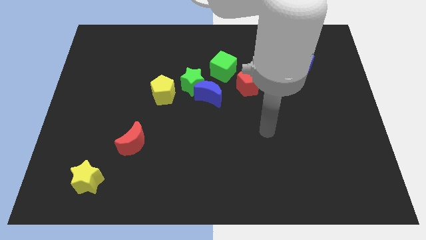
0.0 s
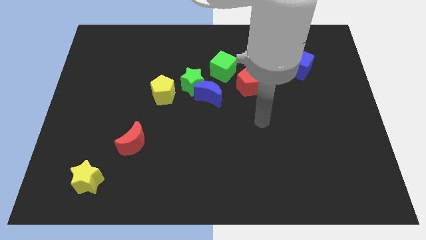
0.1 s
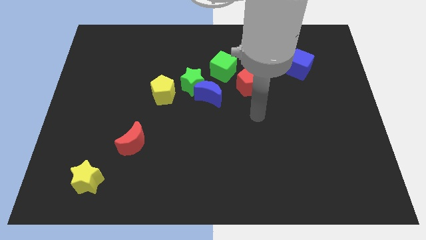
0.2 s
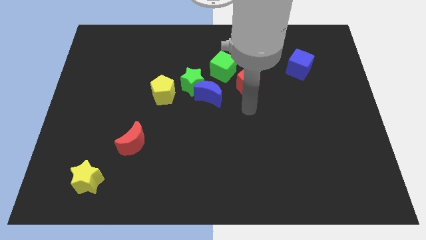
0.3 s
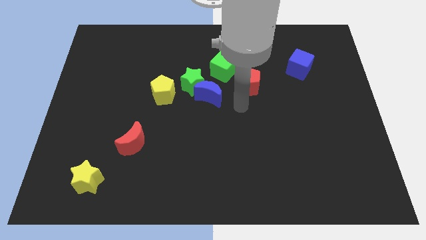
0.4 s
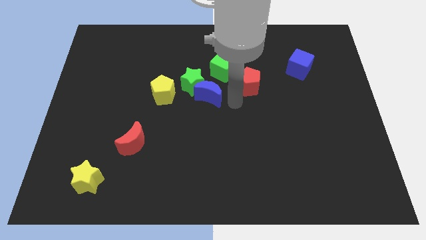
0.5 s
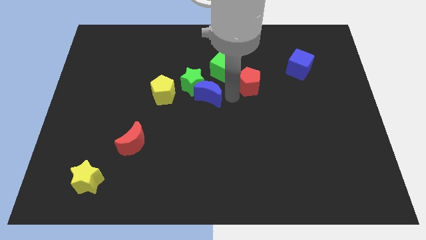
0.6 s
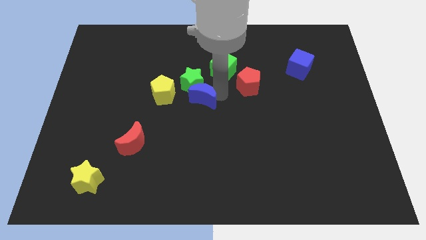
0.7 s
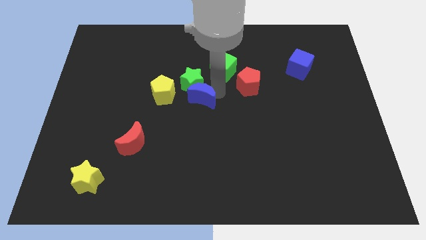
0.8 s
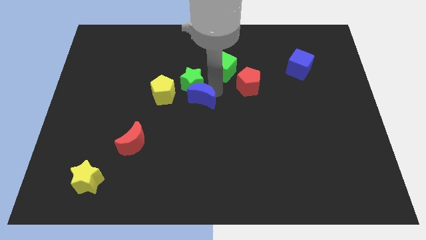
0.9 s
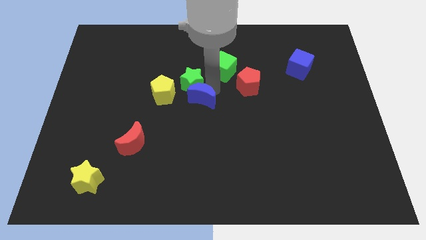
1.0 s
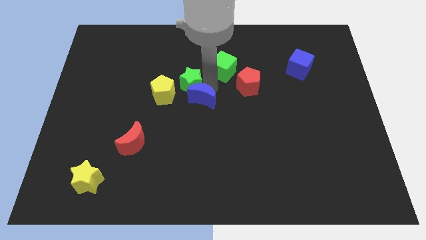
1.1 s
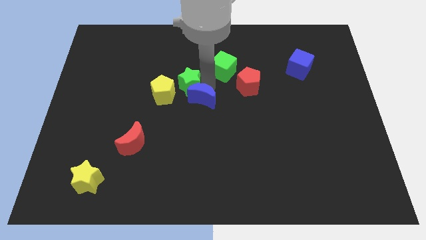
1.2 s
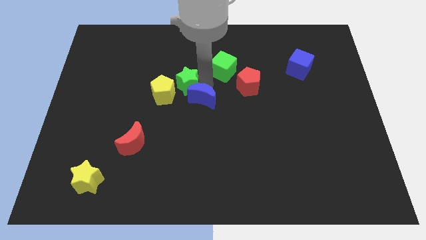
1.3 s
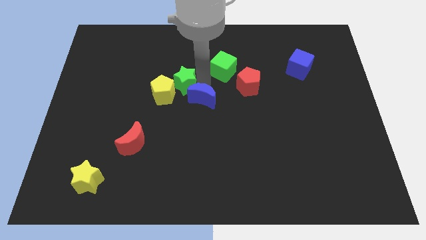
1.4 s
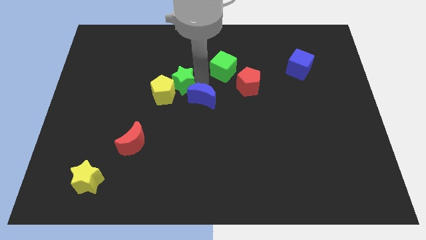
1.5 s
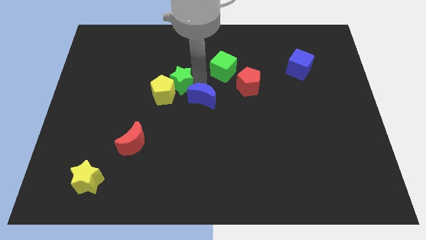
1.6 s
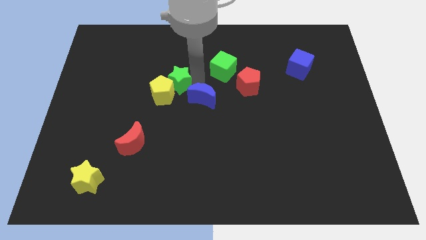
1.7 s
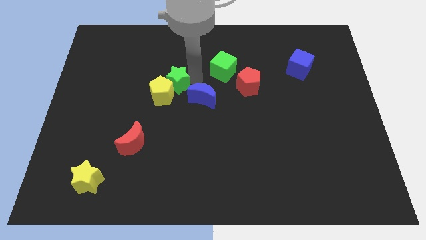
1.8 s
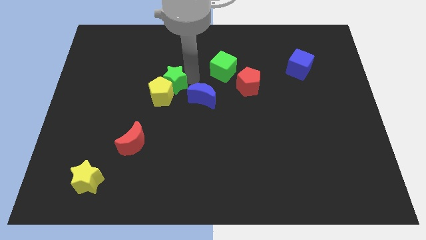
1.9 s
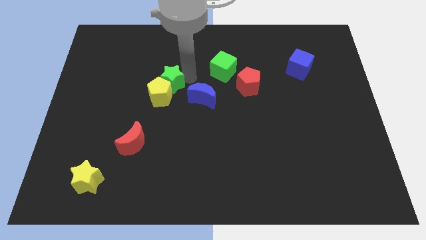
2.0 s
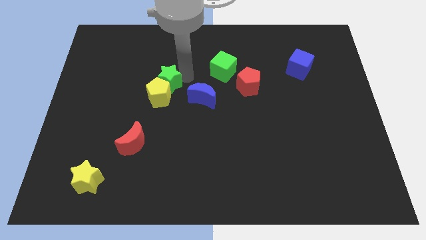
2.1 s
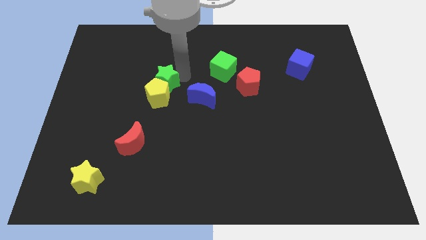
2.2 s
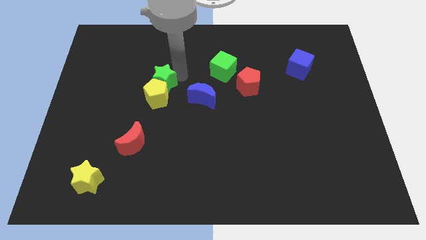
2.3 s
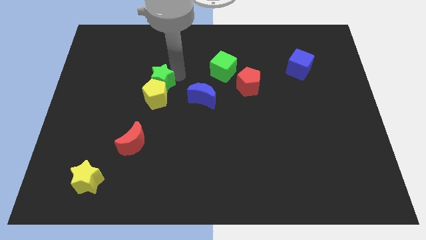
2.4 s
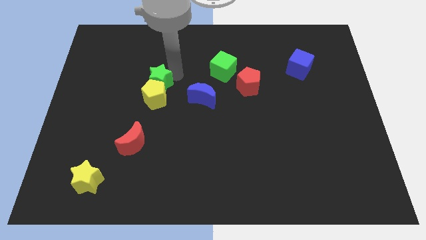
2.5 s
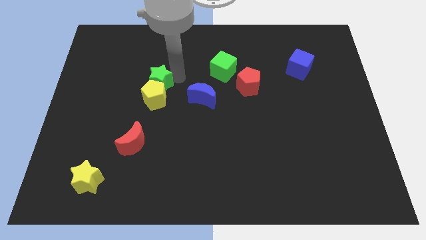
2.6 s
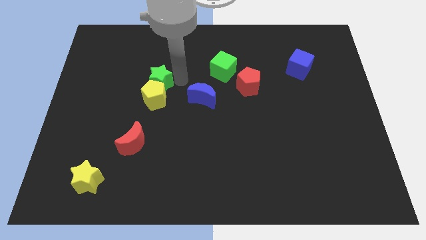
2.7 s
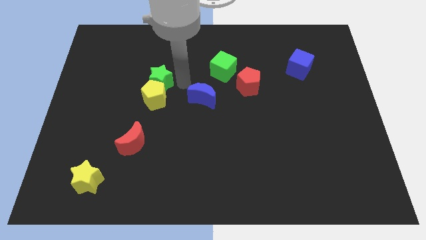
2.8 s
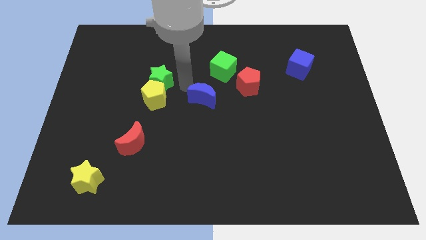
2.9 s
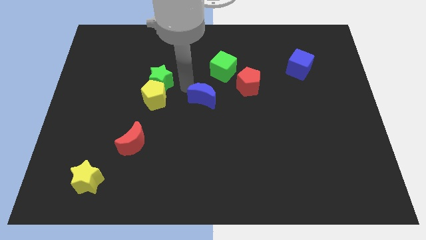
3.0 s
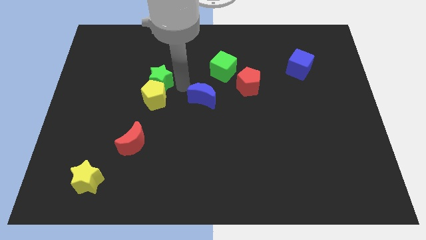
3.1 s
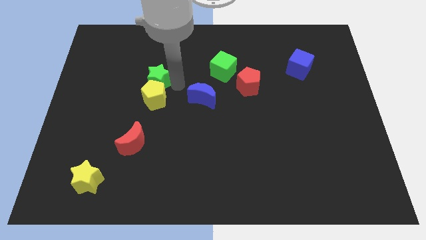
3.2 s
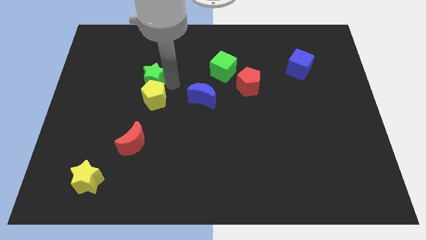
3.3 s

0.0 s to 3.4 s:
separate the green star from the clump

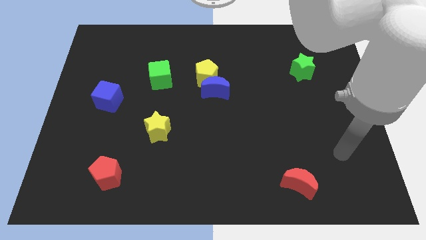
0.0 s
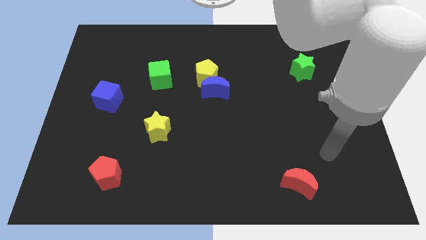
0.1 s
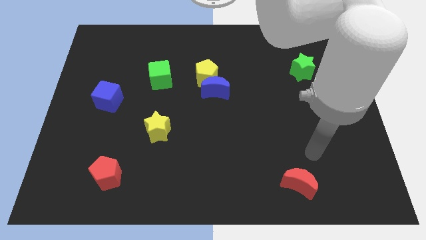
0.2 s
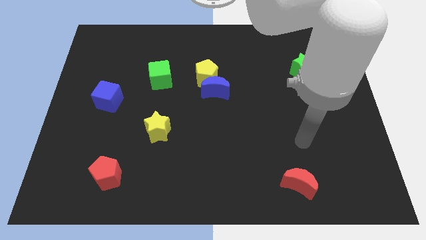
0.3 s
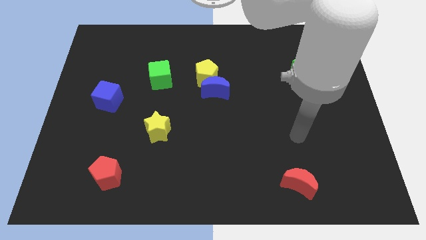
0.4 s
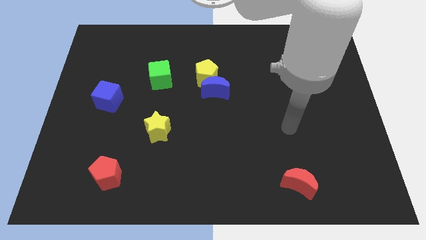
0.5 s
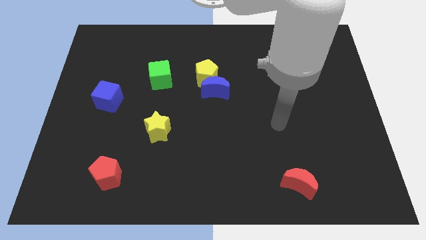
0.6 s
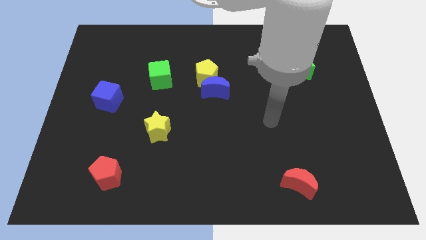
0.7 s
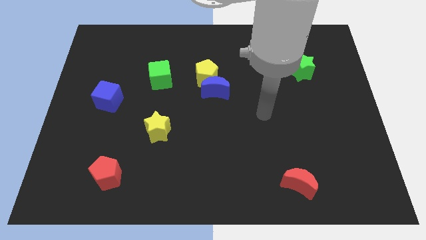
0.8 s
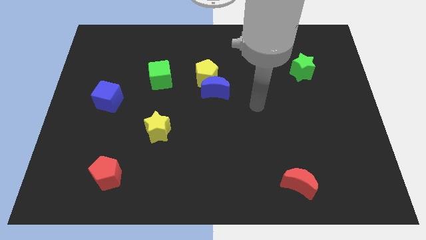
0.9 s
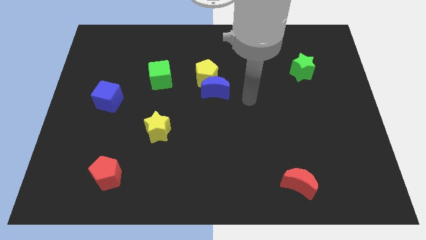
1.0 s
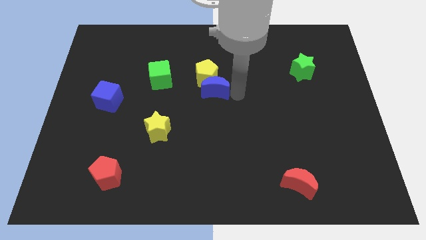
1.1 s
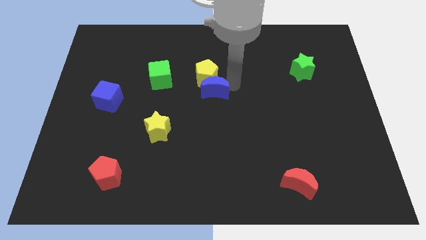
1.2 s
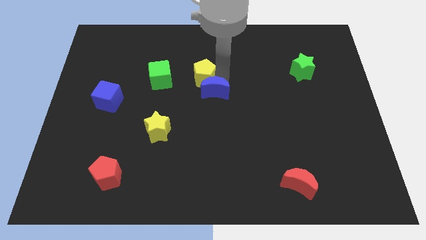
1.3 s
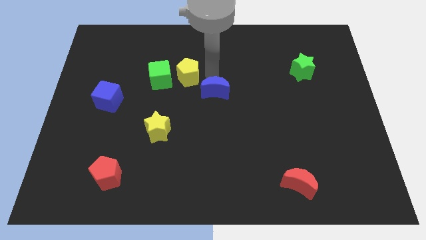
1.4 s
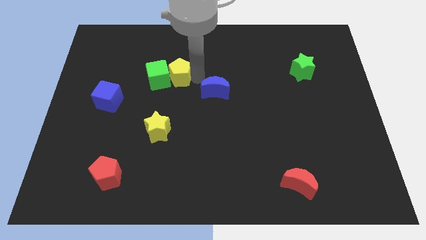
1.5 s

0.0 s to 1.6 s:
pull the blue moon apart from the yellow pentagon

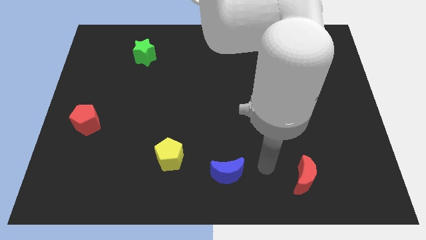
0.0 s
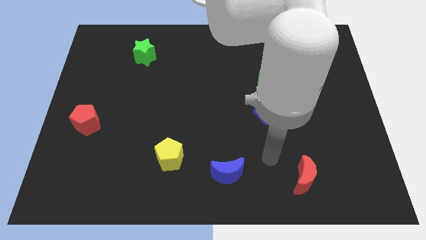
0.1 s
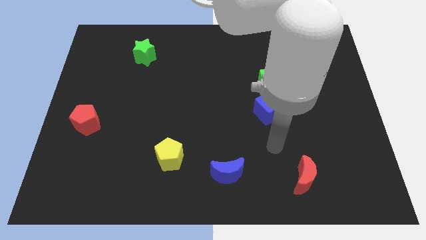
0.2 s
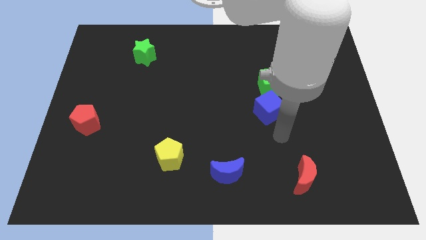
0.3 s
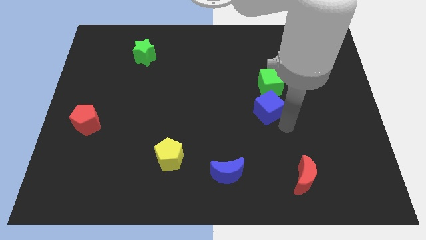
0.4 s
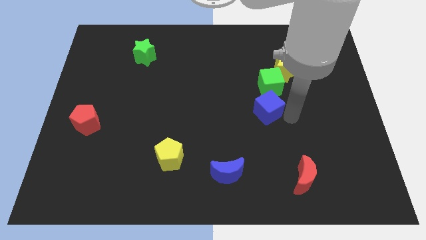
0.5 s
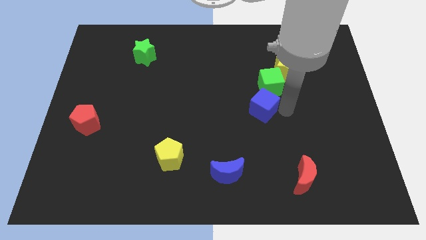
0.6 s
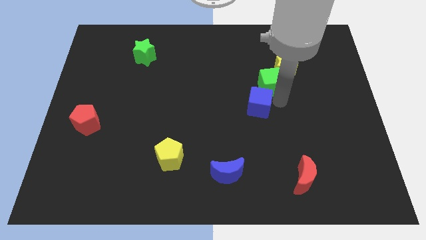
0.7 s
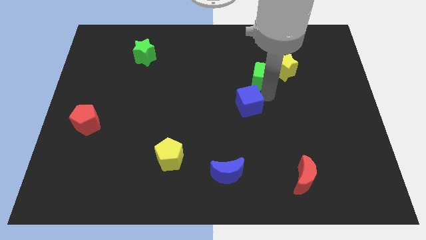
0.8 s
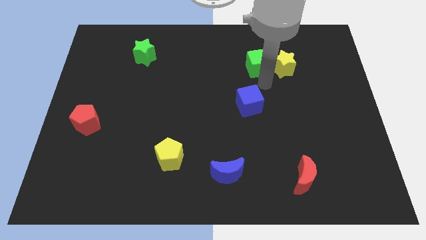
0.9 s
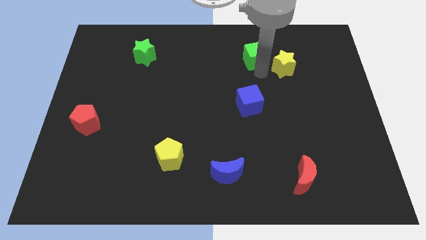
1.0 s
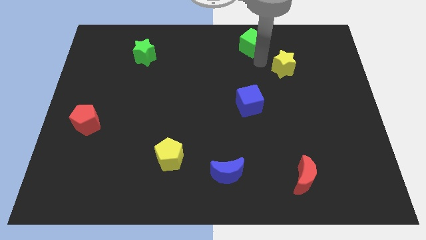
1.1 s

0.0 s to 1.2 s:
move the yellow star away from the green cube

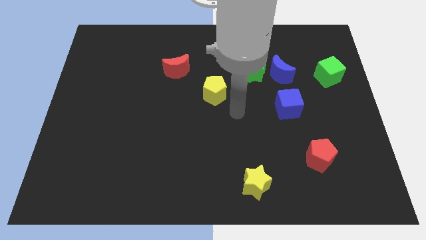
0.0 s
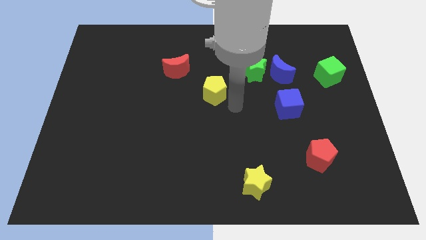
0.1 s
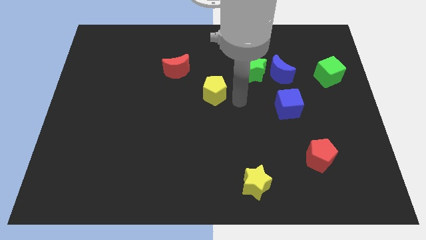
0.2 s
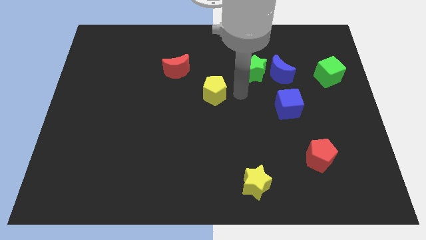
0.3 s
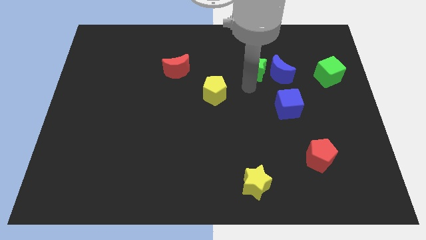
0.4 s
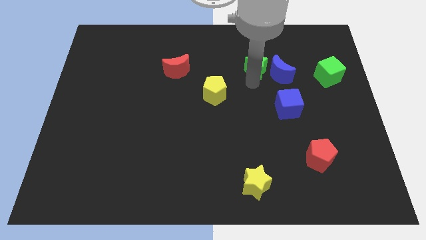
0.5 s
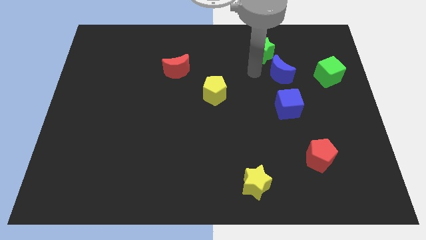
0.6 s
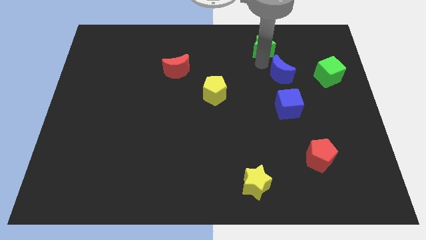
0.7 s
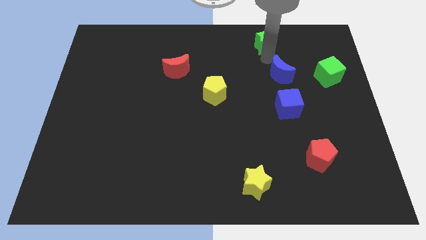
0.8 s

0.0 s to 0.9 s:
pull the blue moon apart from the green star

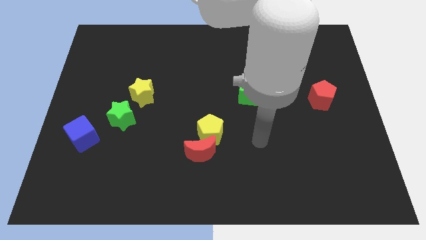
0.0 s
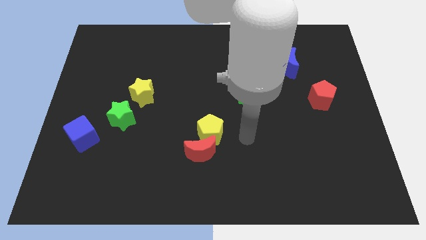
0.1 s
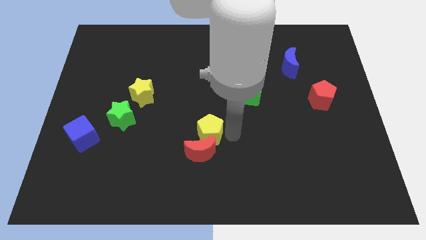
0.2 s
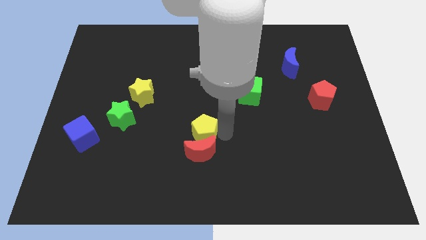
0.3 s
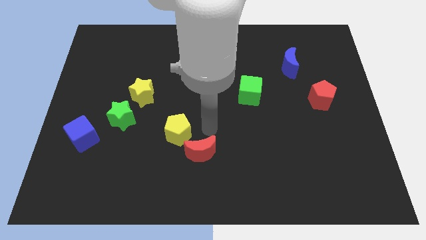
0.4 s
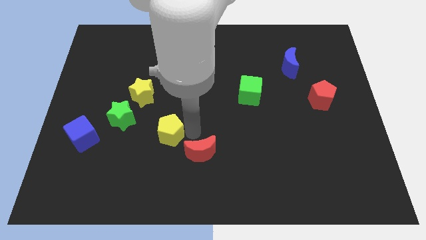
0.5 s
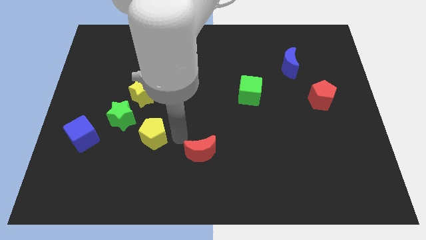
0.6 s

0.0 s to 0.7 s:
move the red moon away from the yellow pentagon

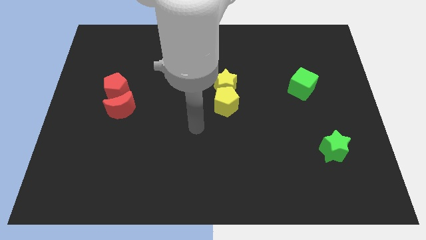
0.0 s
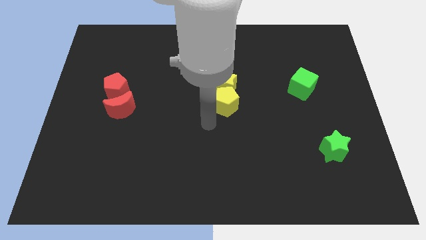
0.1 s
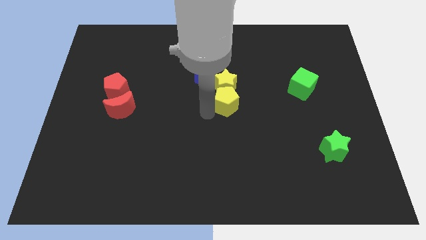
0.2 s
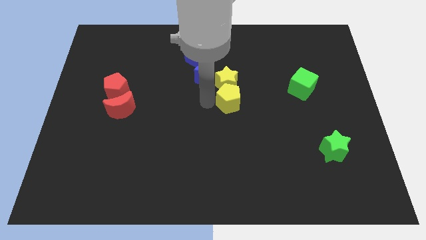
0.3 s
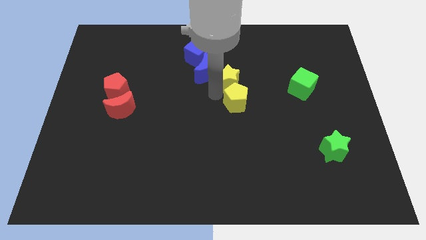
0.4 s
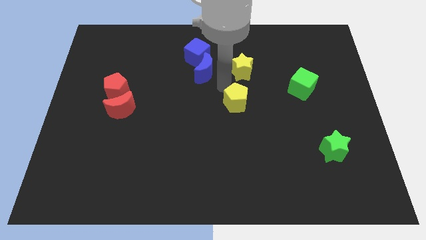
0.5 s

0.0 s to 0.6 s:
move the yellow pentagon away from the yellow star

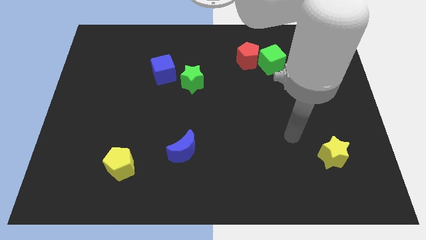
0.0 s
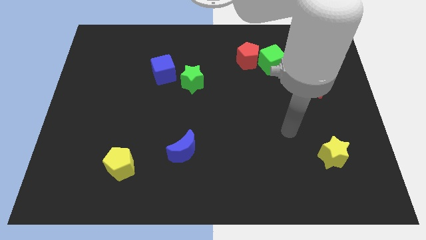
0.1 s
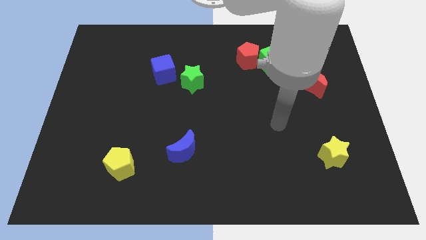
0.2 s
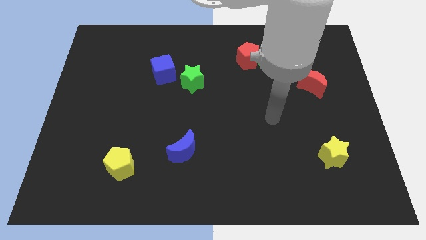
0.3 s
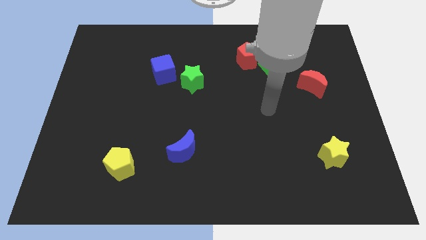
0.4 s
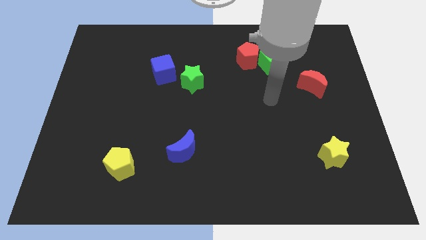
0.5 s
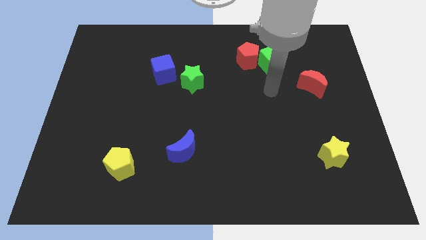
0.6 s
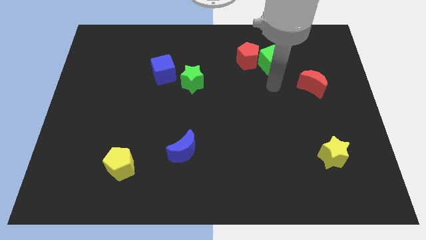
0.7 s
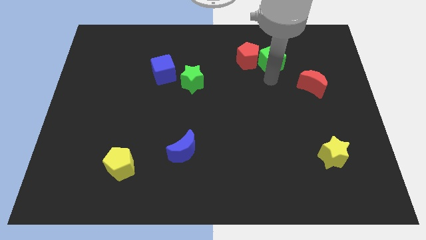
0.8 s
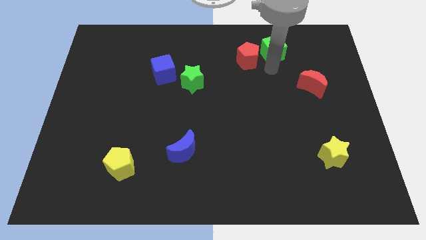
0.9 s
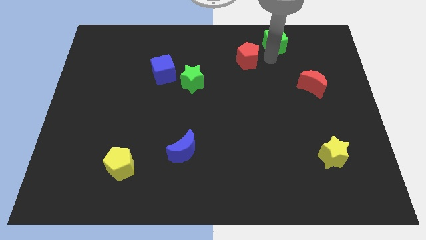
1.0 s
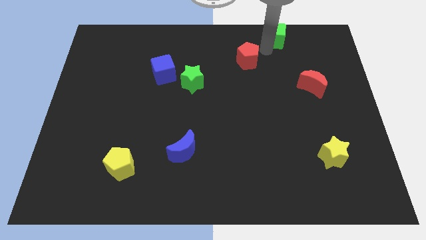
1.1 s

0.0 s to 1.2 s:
pull the red pentagon apart from the green cube
